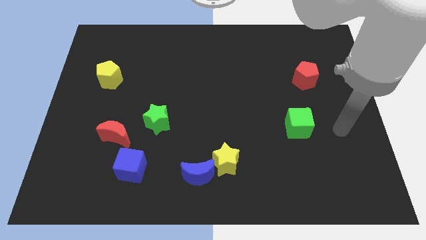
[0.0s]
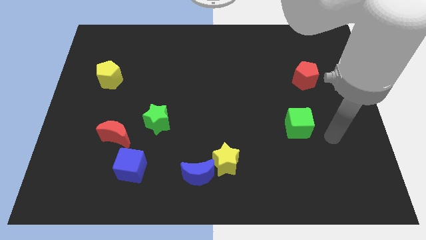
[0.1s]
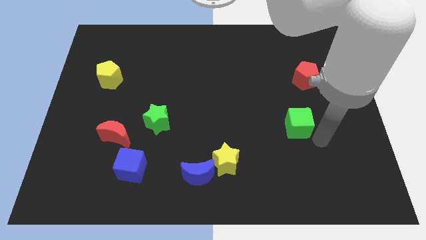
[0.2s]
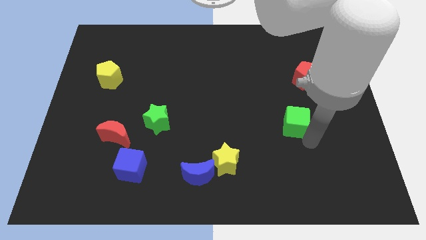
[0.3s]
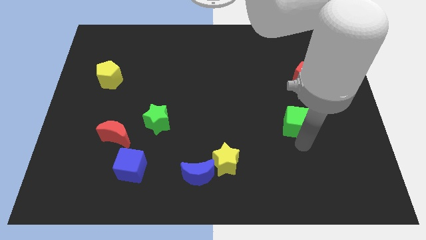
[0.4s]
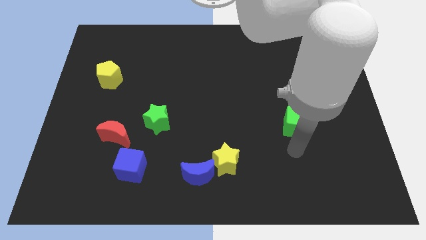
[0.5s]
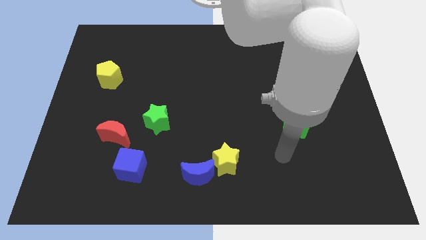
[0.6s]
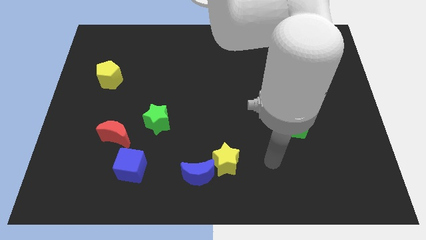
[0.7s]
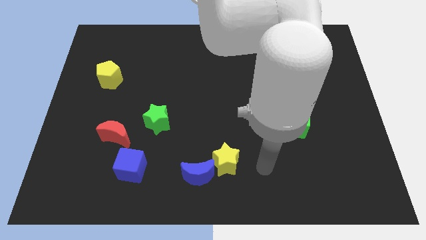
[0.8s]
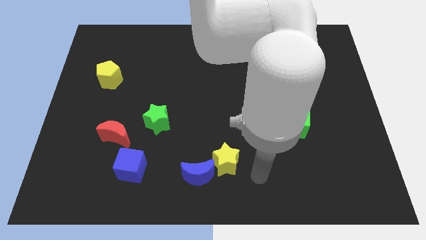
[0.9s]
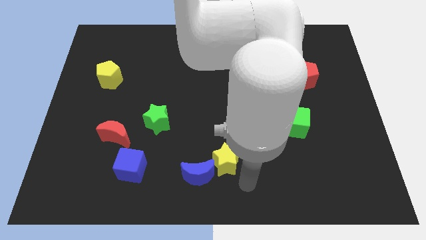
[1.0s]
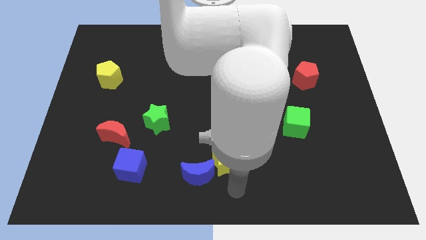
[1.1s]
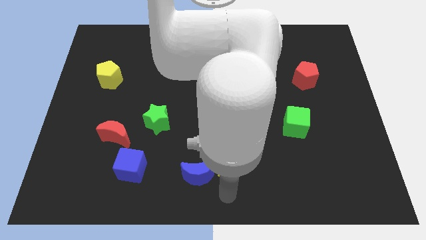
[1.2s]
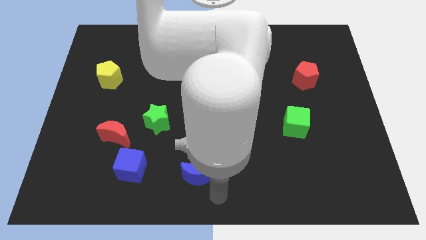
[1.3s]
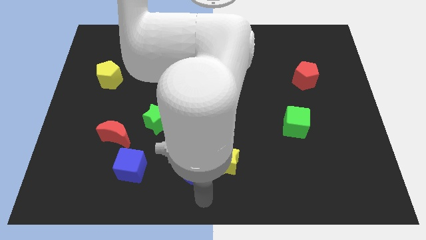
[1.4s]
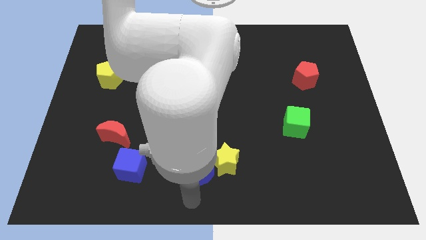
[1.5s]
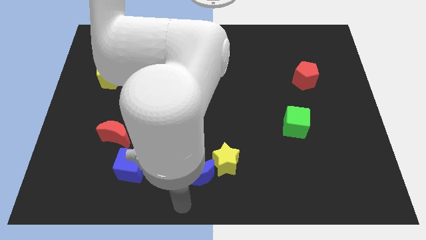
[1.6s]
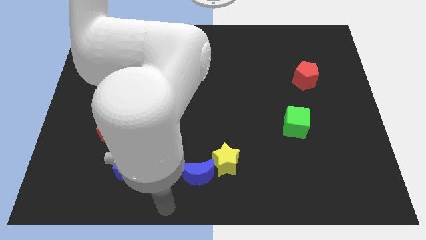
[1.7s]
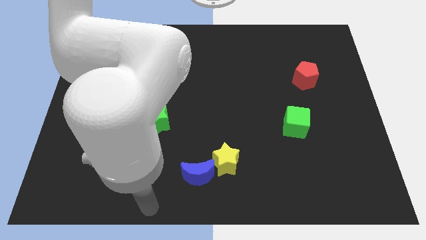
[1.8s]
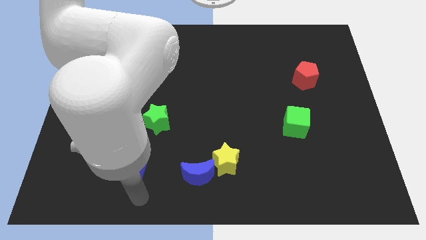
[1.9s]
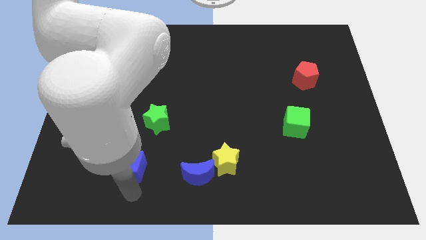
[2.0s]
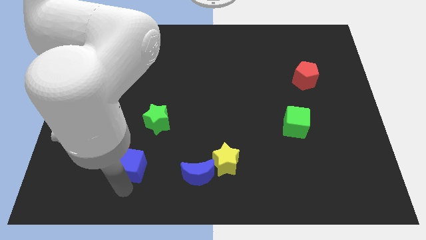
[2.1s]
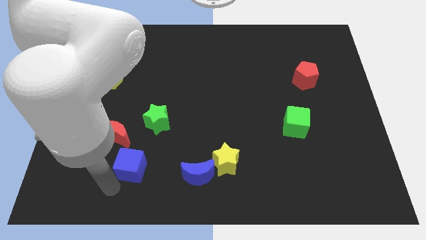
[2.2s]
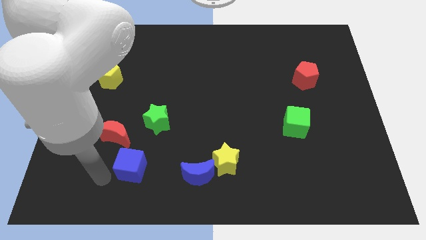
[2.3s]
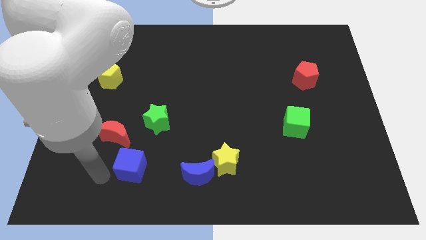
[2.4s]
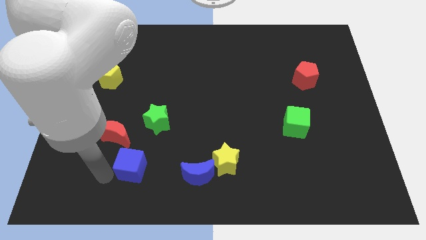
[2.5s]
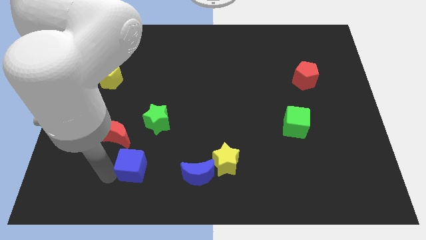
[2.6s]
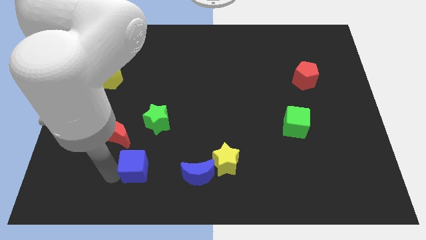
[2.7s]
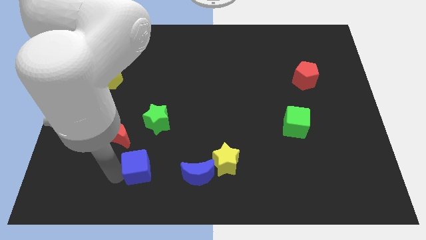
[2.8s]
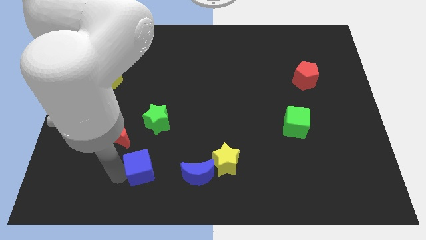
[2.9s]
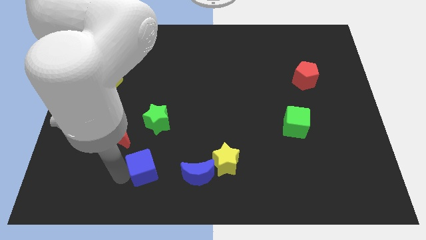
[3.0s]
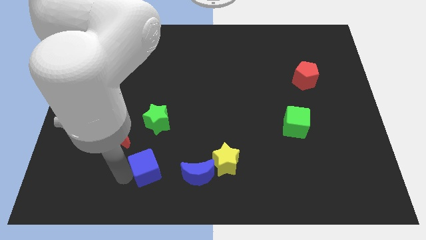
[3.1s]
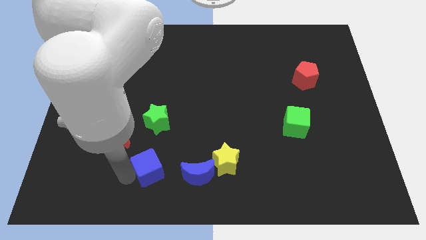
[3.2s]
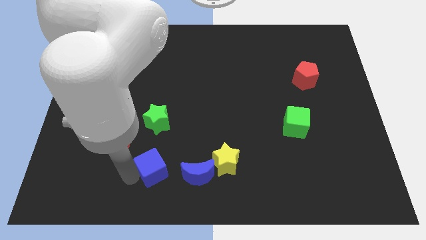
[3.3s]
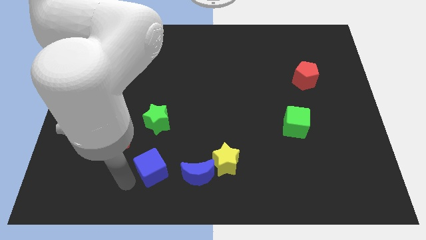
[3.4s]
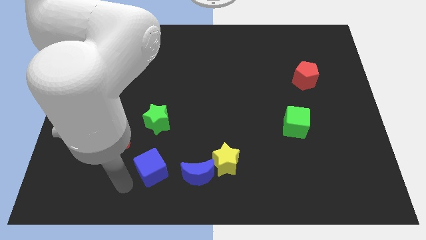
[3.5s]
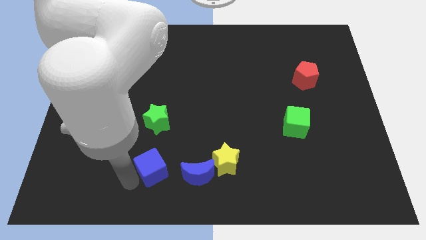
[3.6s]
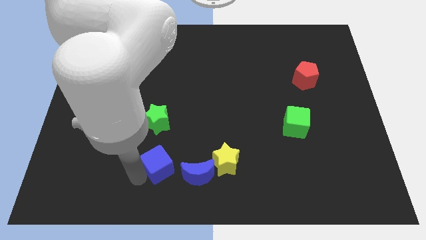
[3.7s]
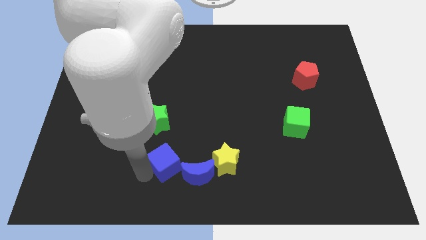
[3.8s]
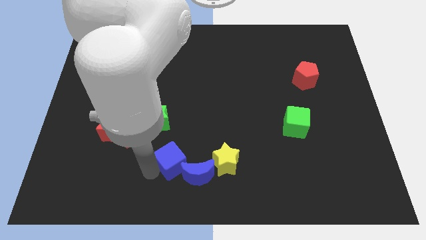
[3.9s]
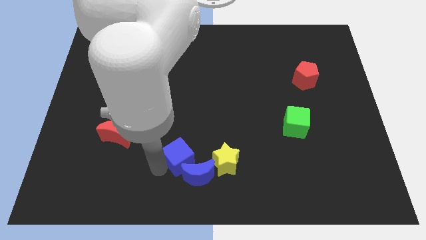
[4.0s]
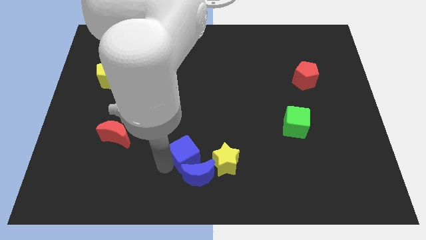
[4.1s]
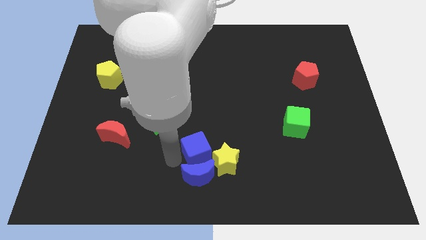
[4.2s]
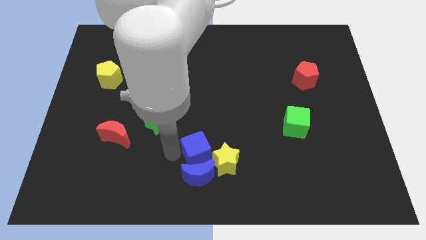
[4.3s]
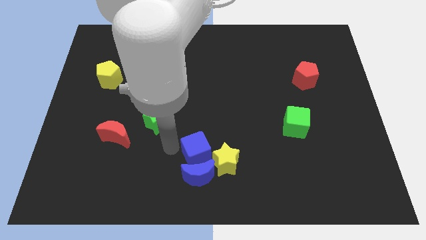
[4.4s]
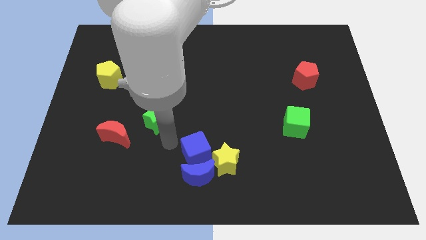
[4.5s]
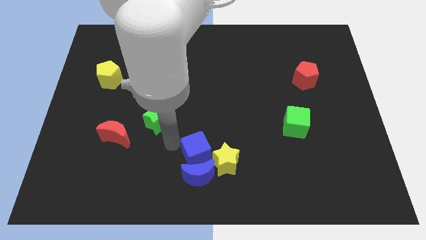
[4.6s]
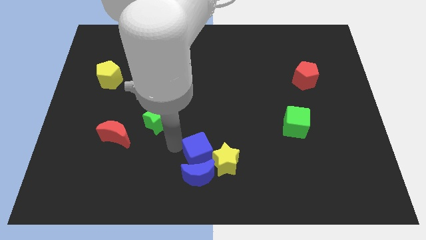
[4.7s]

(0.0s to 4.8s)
slide the blue cube towards the yellow star

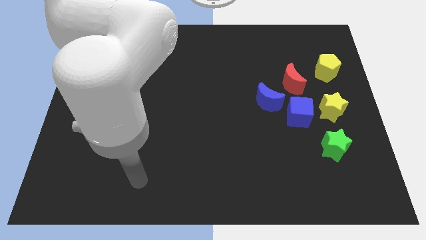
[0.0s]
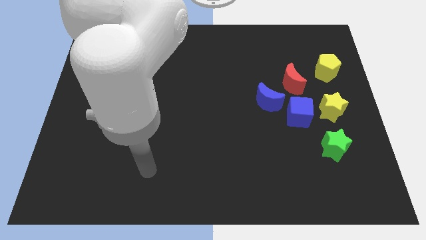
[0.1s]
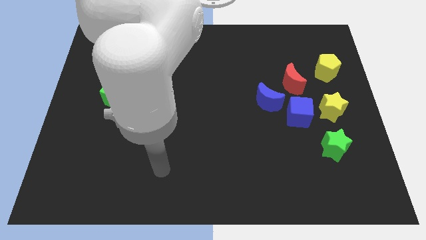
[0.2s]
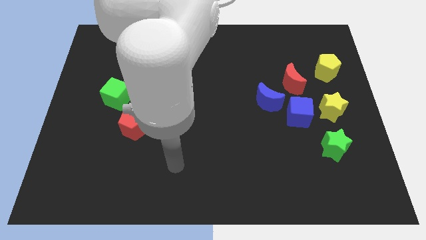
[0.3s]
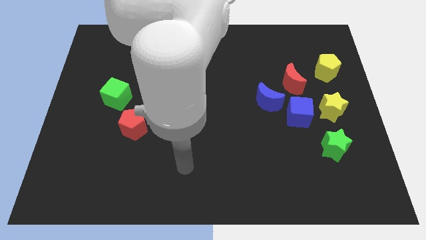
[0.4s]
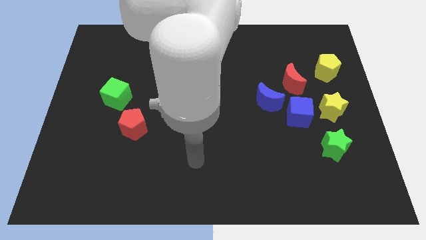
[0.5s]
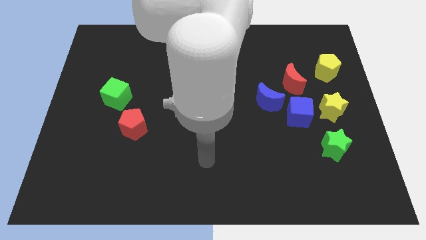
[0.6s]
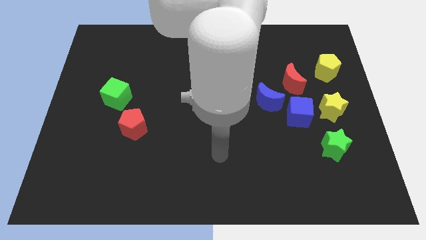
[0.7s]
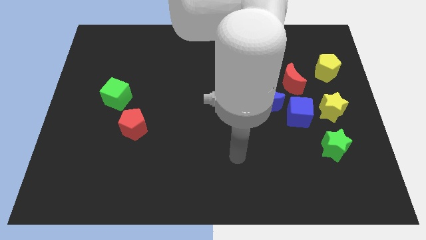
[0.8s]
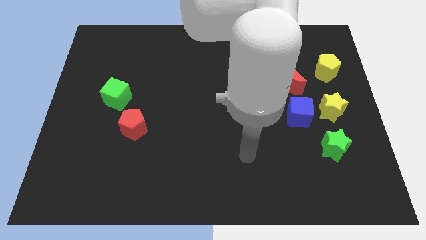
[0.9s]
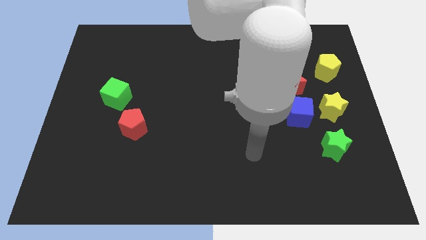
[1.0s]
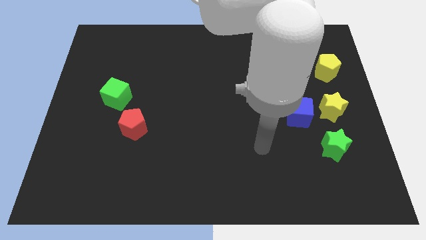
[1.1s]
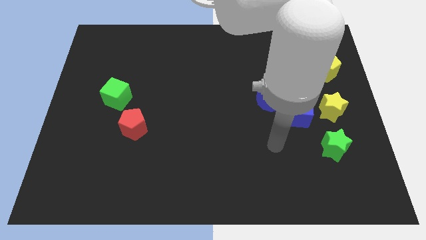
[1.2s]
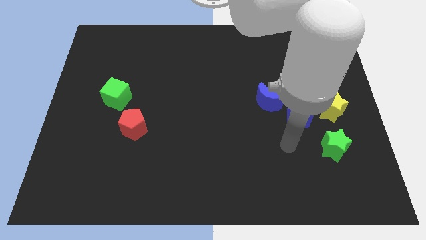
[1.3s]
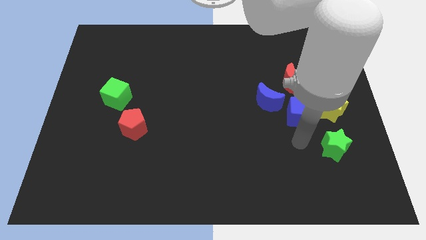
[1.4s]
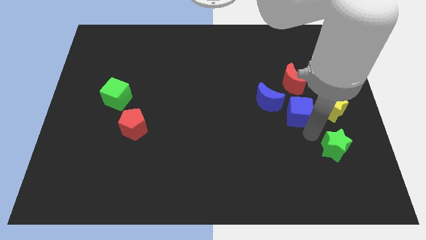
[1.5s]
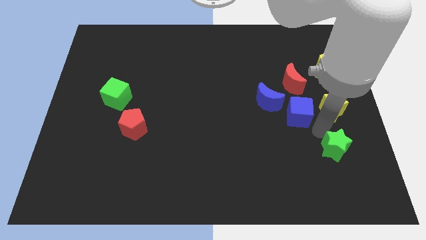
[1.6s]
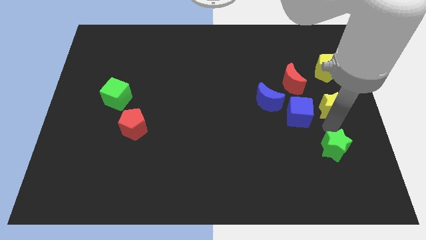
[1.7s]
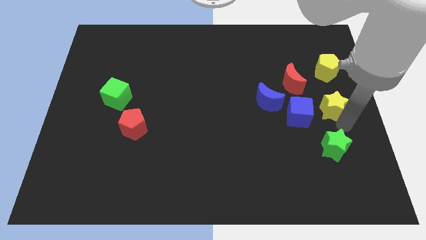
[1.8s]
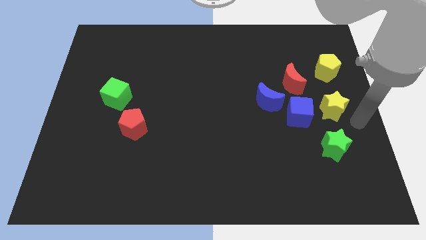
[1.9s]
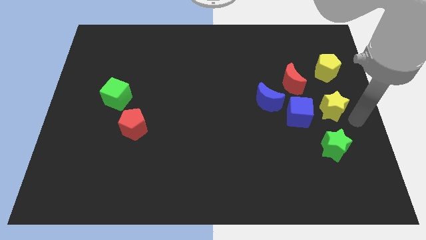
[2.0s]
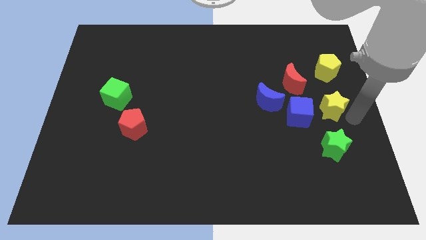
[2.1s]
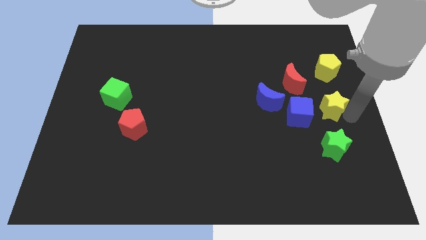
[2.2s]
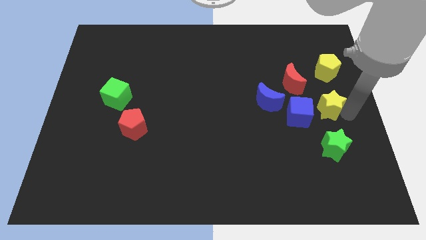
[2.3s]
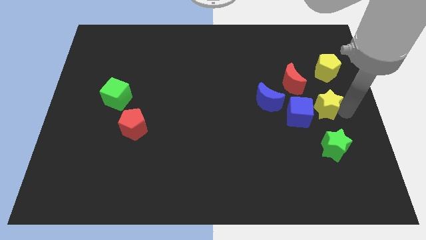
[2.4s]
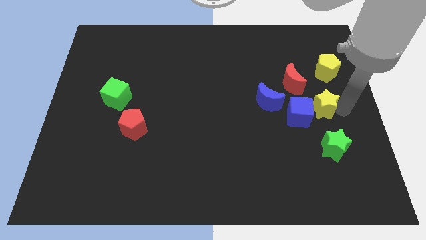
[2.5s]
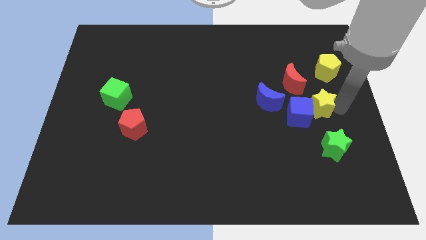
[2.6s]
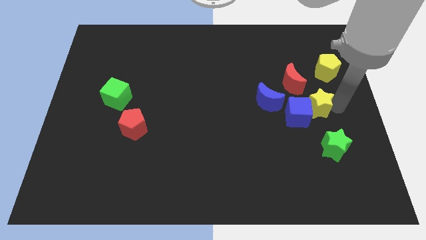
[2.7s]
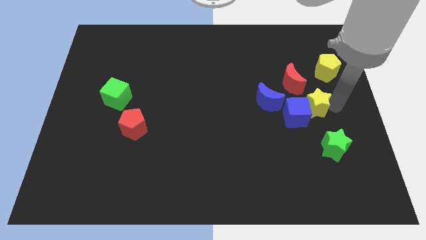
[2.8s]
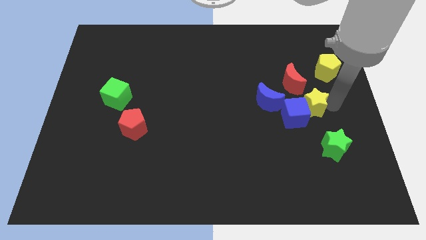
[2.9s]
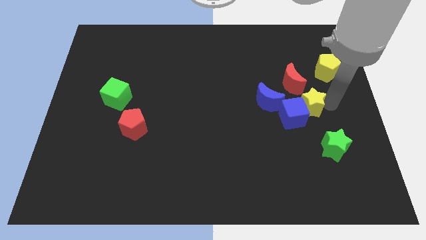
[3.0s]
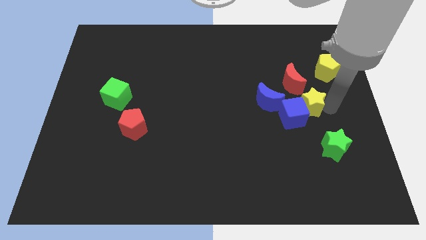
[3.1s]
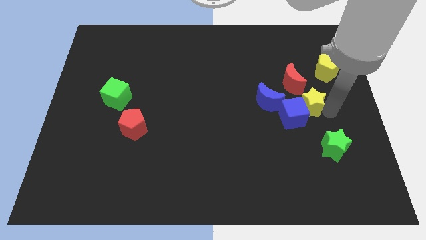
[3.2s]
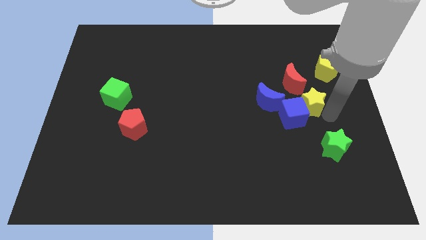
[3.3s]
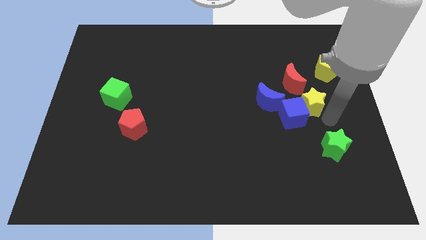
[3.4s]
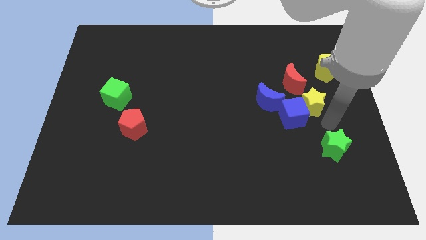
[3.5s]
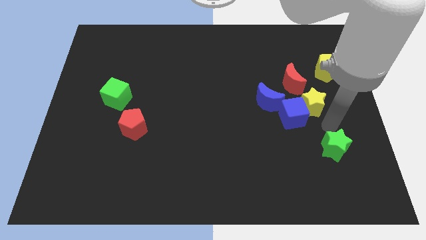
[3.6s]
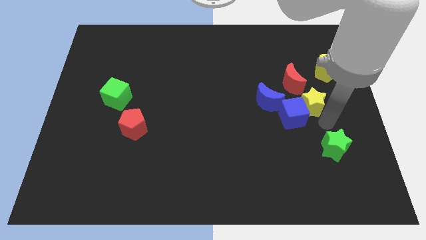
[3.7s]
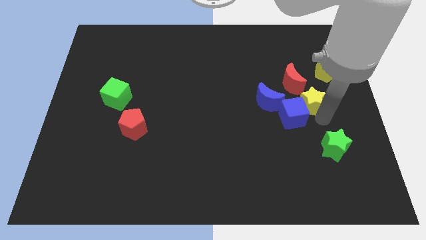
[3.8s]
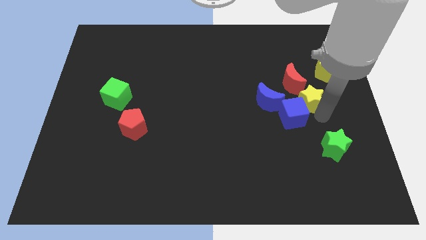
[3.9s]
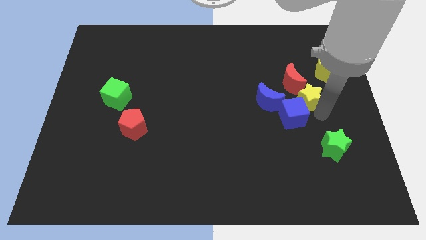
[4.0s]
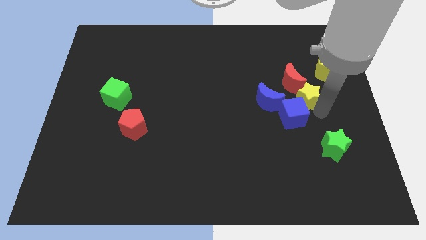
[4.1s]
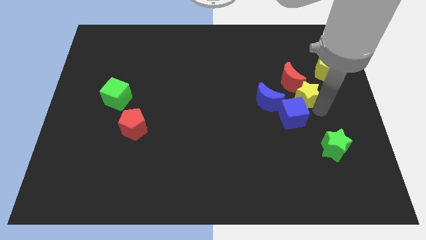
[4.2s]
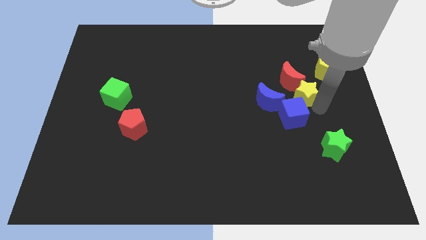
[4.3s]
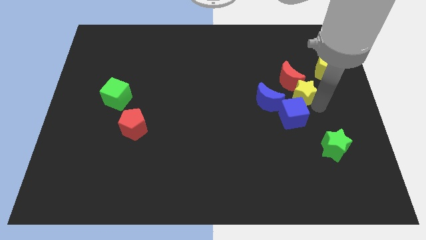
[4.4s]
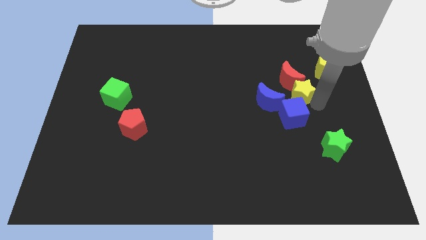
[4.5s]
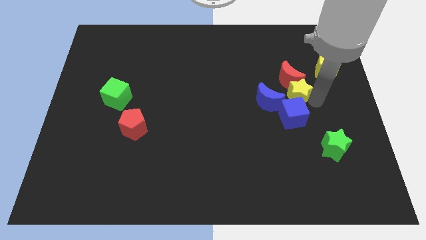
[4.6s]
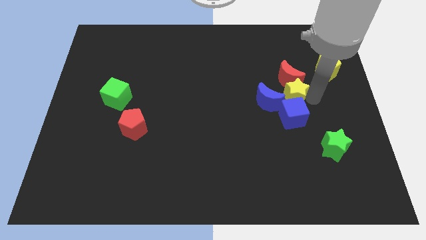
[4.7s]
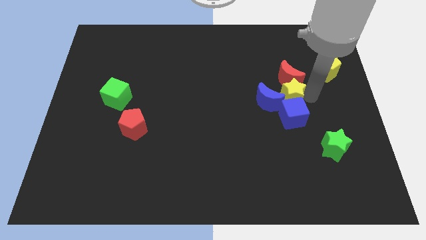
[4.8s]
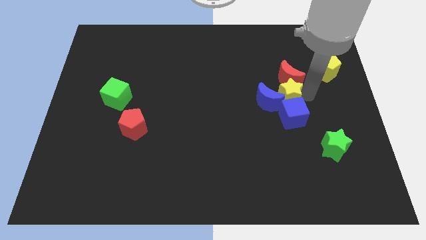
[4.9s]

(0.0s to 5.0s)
put the yellow star next to the blue moon
